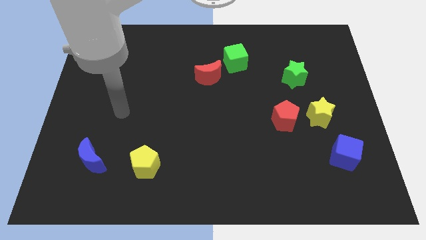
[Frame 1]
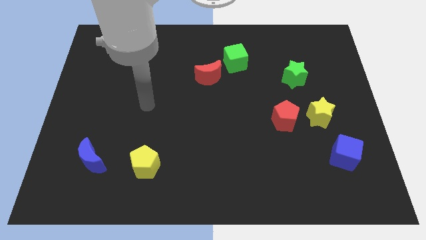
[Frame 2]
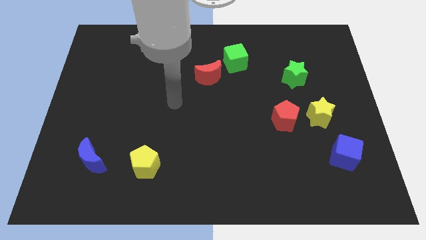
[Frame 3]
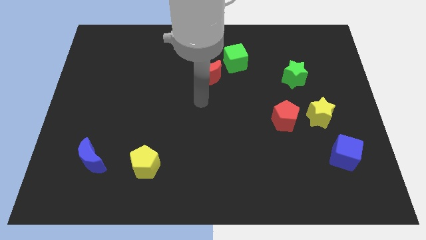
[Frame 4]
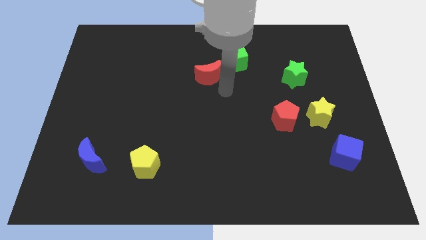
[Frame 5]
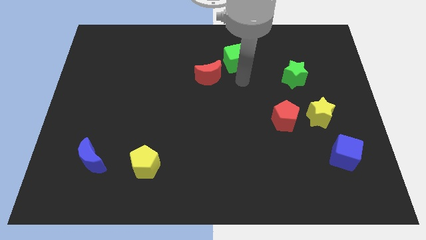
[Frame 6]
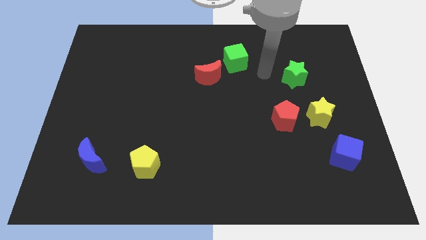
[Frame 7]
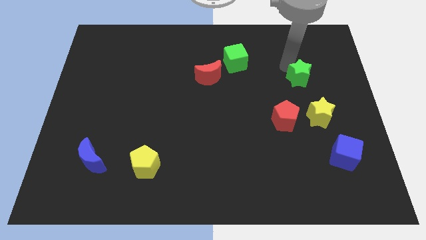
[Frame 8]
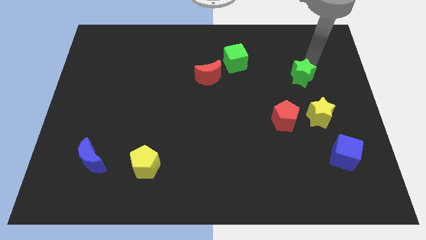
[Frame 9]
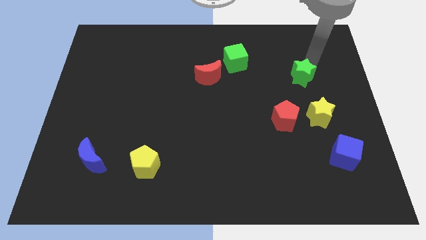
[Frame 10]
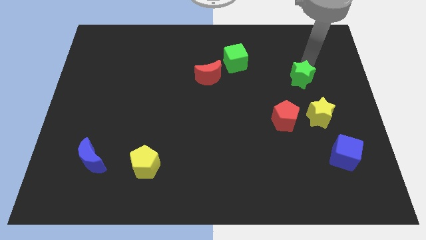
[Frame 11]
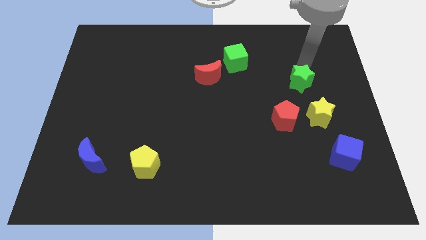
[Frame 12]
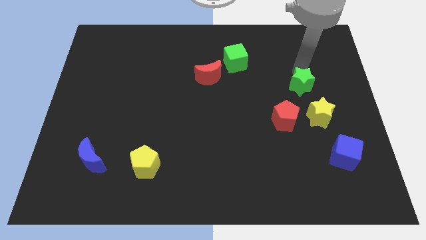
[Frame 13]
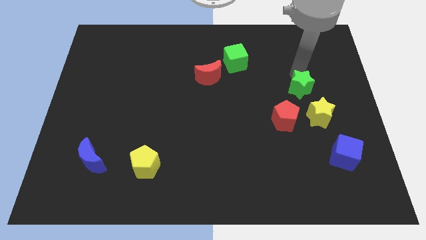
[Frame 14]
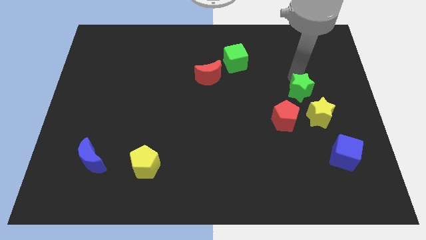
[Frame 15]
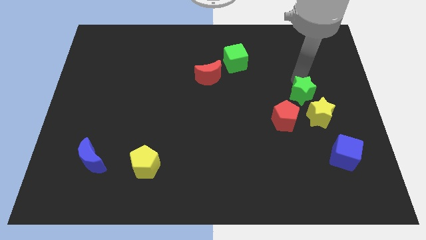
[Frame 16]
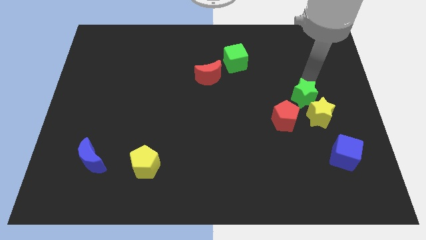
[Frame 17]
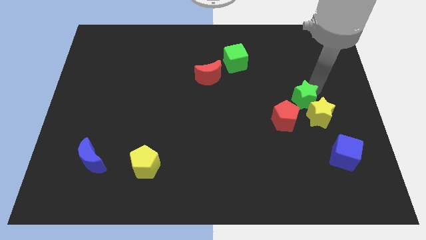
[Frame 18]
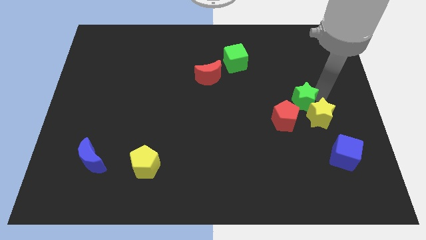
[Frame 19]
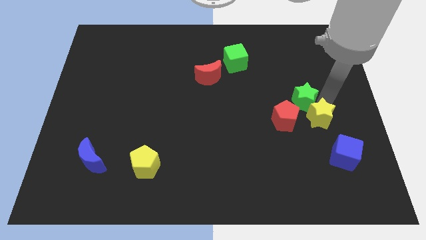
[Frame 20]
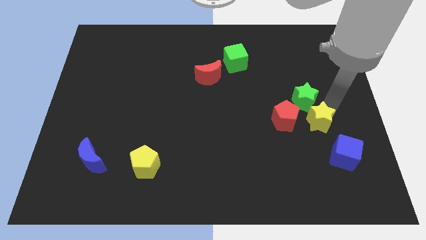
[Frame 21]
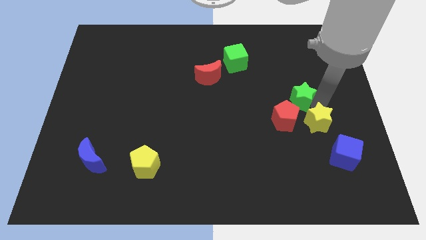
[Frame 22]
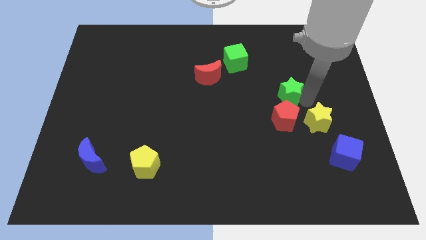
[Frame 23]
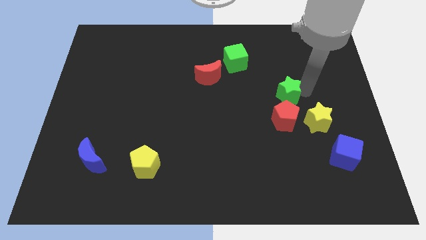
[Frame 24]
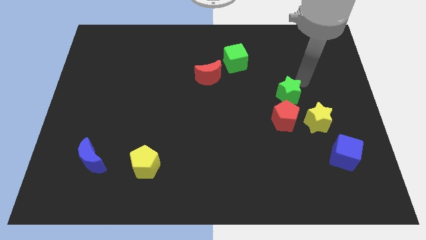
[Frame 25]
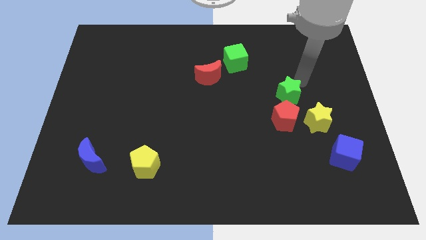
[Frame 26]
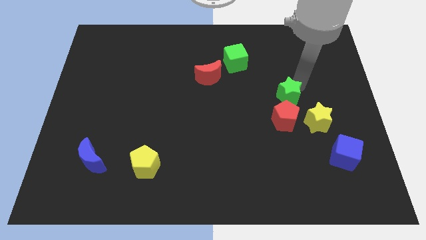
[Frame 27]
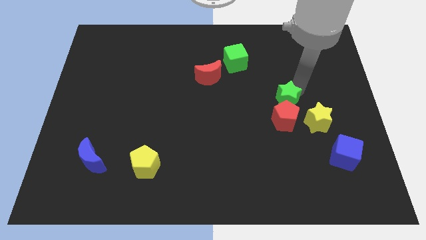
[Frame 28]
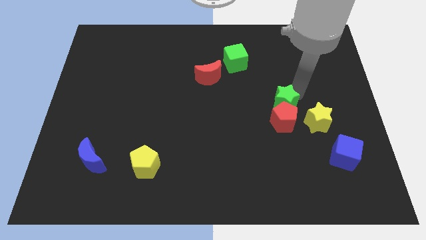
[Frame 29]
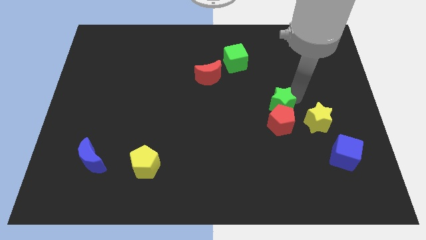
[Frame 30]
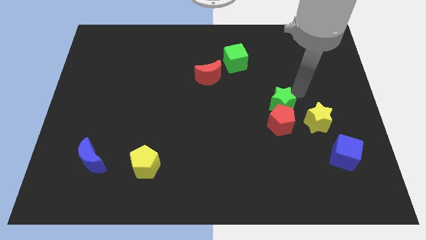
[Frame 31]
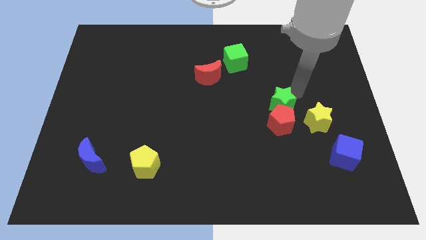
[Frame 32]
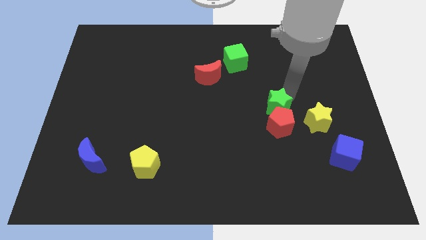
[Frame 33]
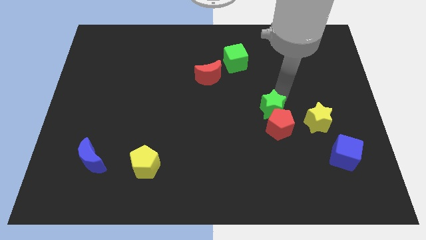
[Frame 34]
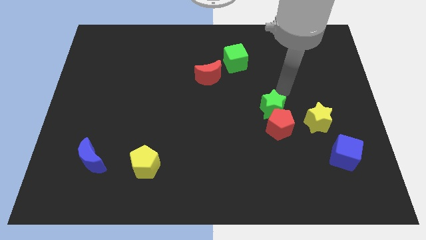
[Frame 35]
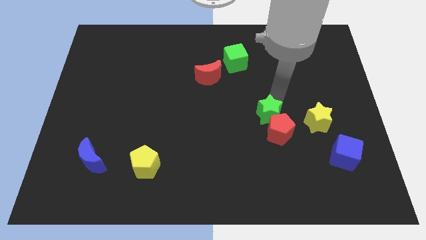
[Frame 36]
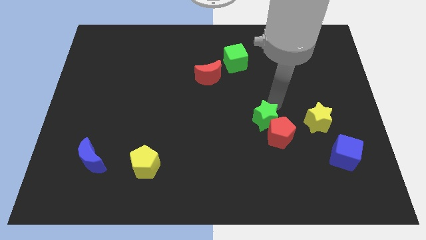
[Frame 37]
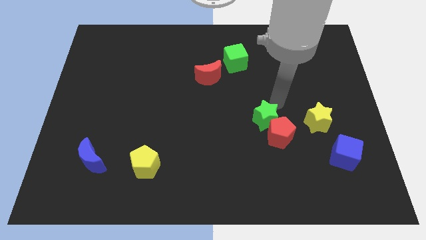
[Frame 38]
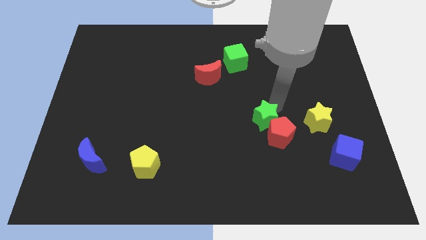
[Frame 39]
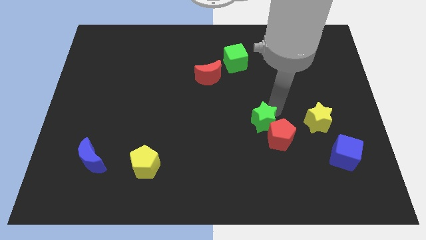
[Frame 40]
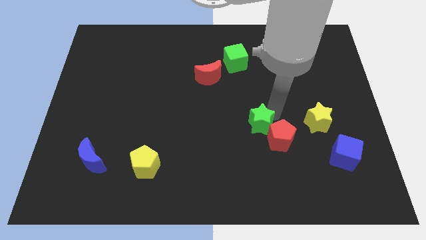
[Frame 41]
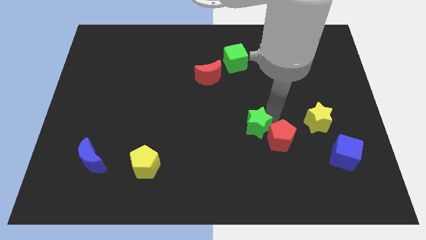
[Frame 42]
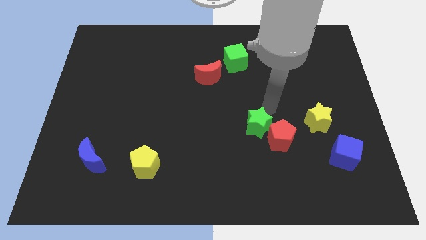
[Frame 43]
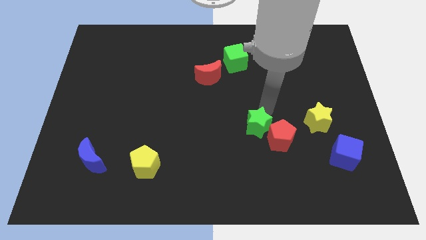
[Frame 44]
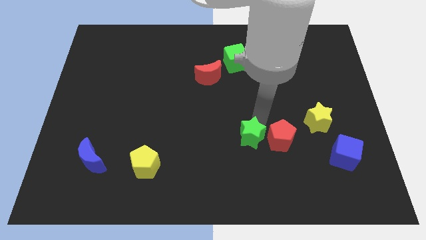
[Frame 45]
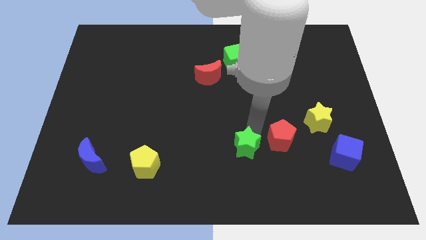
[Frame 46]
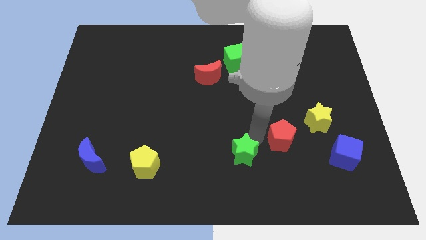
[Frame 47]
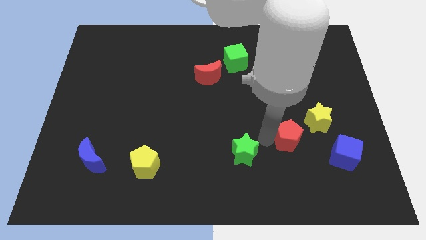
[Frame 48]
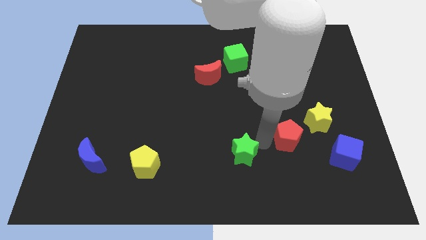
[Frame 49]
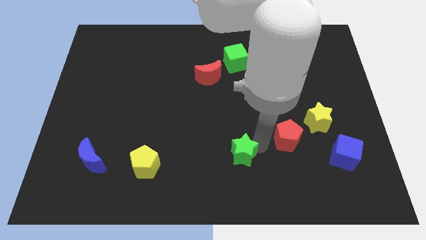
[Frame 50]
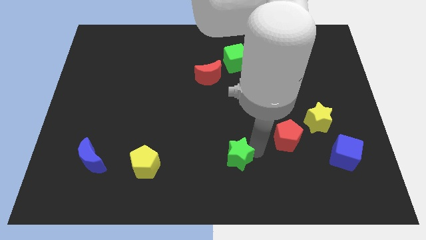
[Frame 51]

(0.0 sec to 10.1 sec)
push the green star to the bottom side

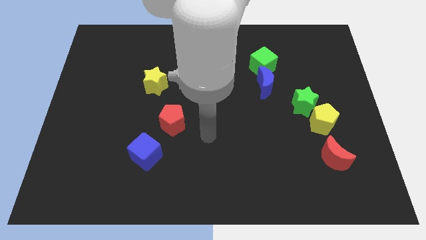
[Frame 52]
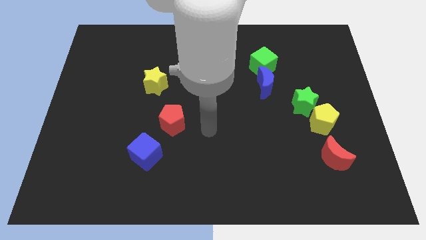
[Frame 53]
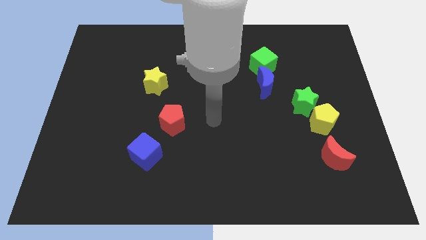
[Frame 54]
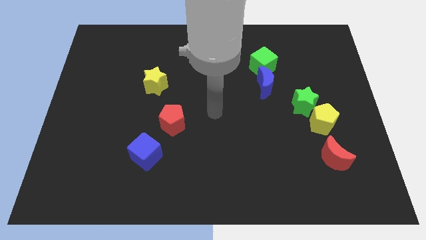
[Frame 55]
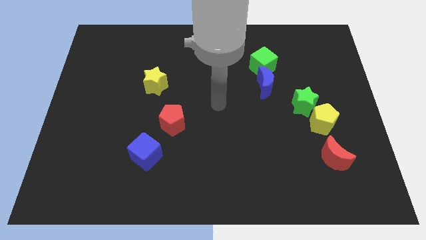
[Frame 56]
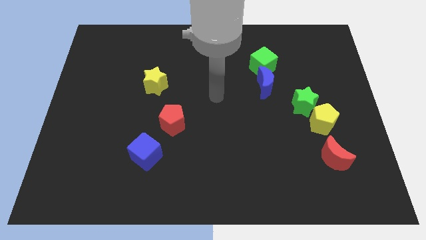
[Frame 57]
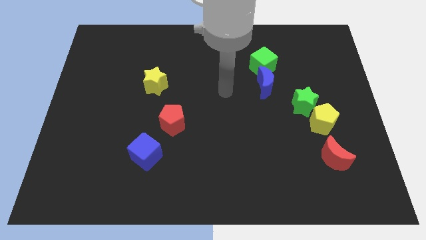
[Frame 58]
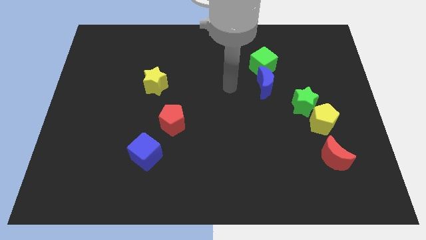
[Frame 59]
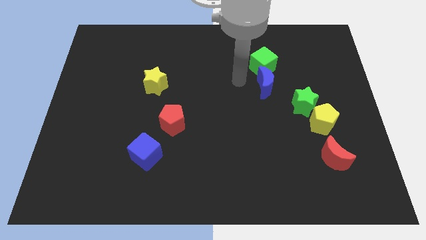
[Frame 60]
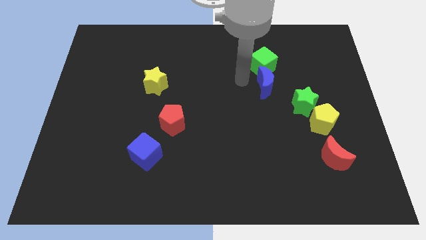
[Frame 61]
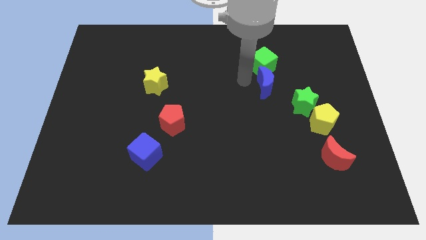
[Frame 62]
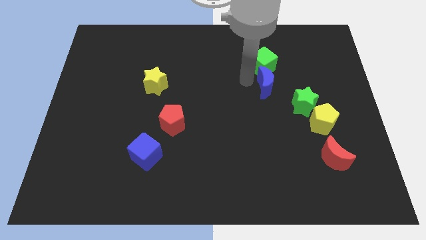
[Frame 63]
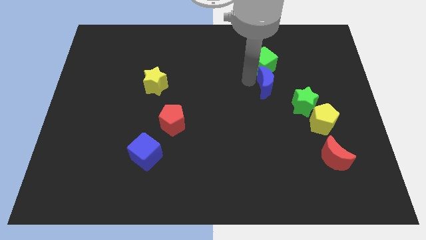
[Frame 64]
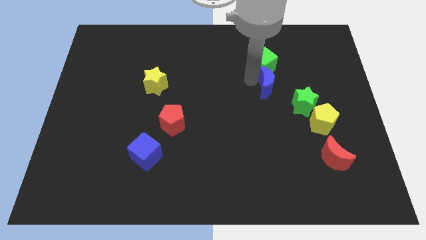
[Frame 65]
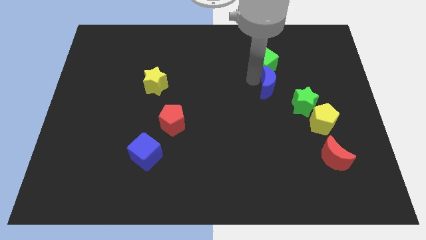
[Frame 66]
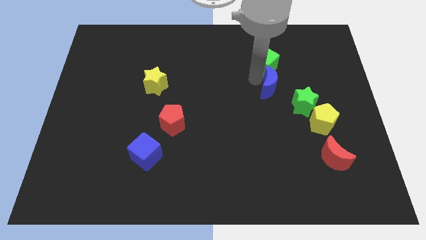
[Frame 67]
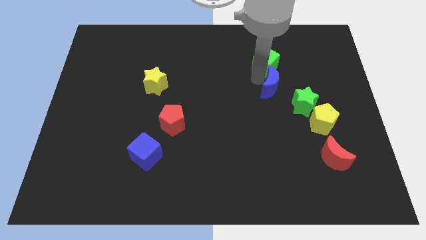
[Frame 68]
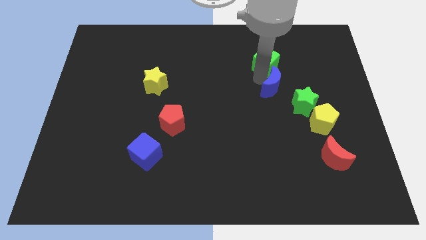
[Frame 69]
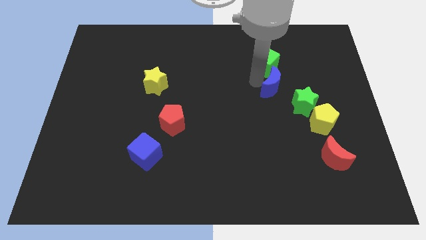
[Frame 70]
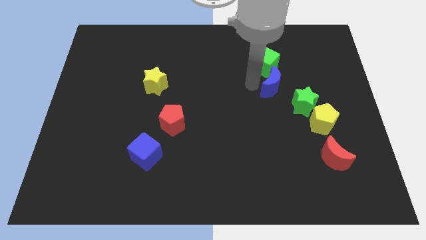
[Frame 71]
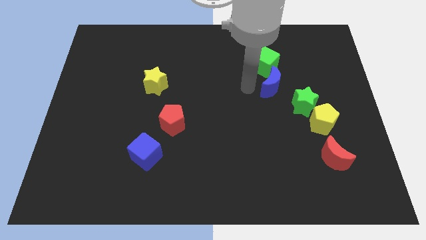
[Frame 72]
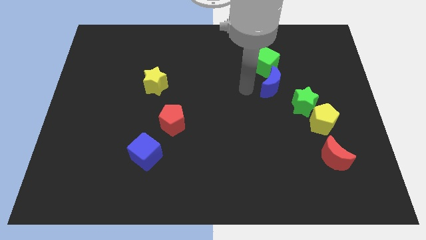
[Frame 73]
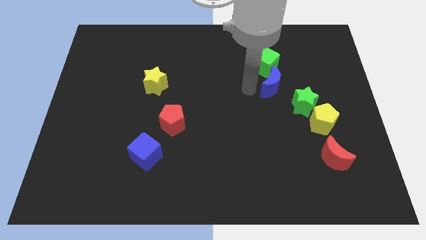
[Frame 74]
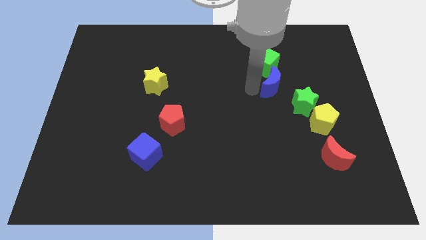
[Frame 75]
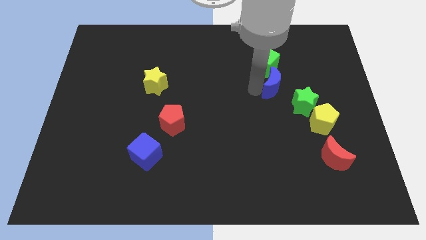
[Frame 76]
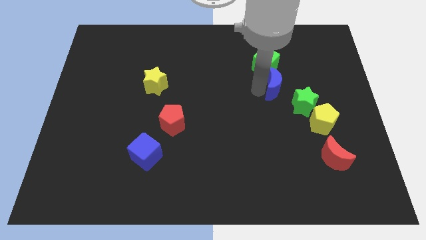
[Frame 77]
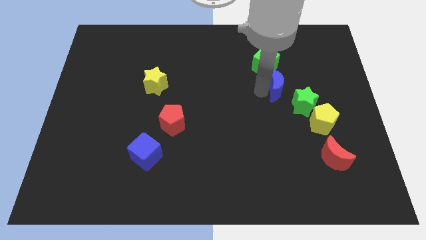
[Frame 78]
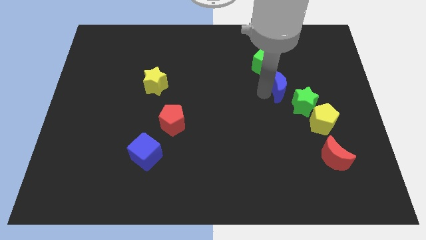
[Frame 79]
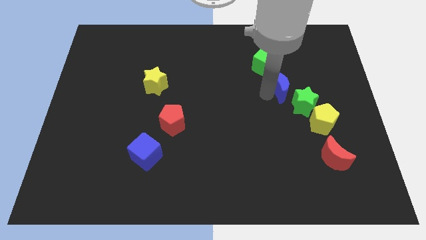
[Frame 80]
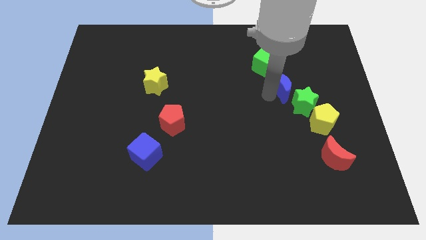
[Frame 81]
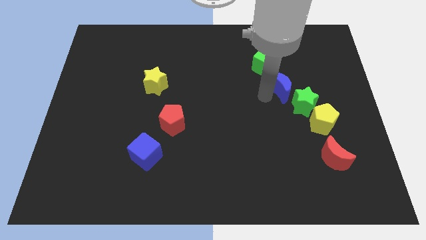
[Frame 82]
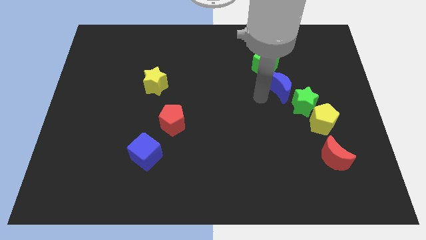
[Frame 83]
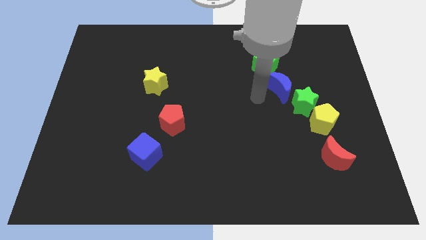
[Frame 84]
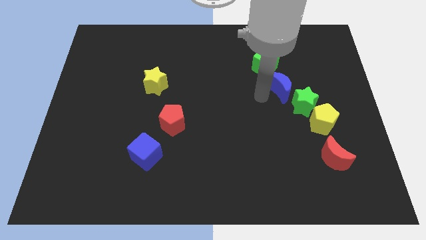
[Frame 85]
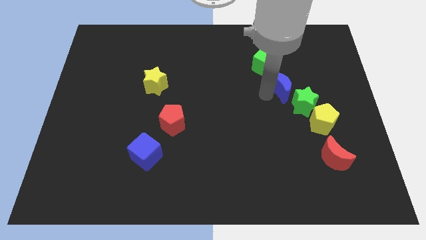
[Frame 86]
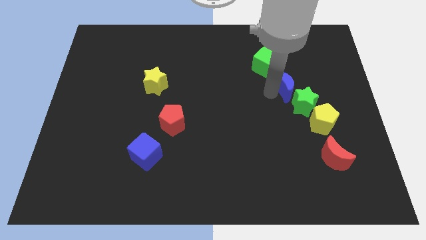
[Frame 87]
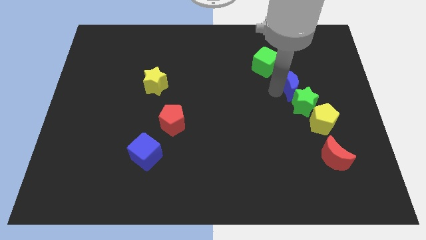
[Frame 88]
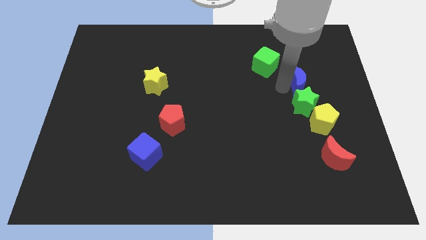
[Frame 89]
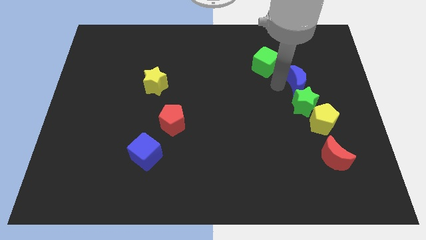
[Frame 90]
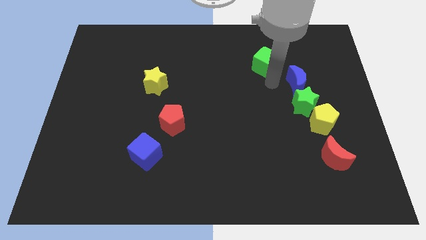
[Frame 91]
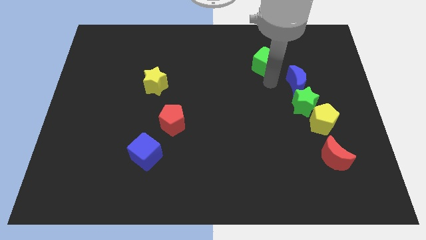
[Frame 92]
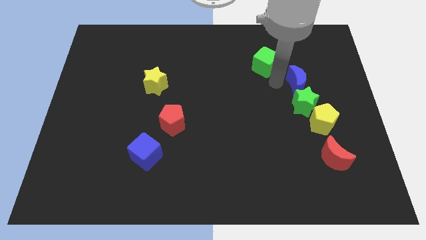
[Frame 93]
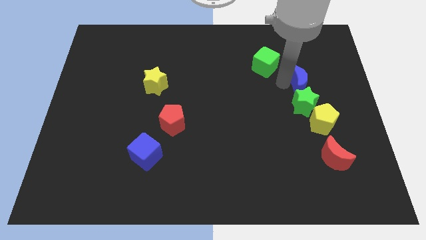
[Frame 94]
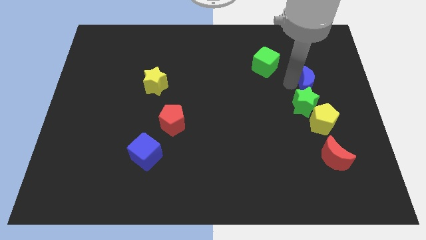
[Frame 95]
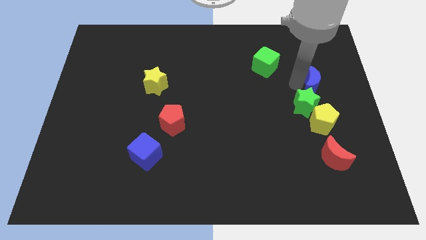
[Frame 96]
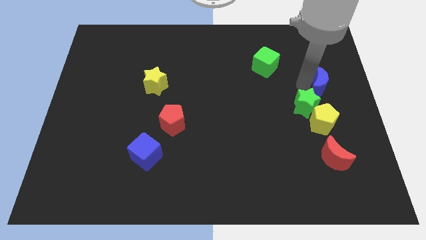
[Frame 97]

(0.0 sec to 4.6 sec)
slide the blue moon to the center right
